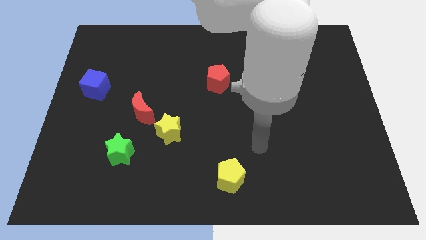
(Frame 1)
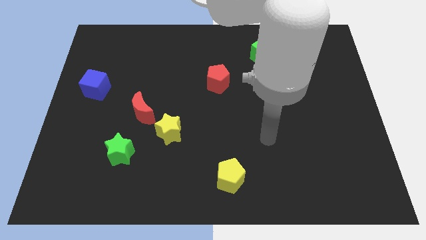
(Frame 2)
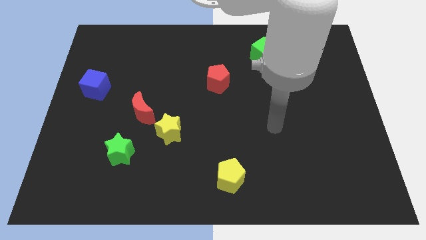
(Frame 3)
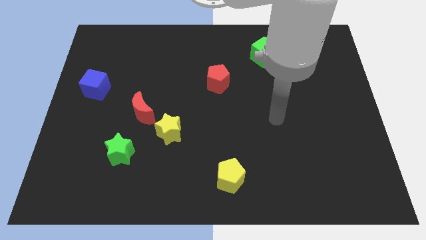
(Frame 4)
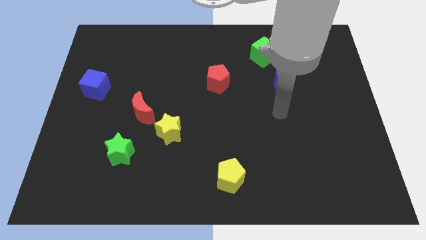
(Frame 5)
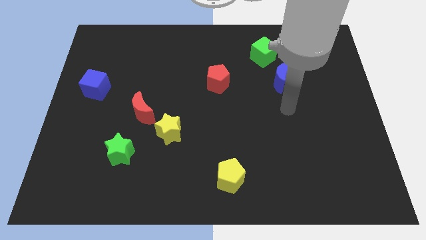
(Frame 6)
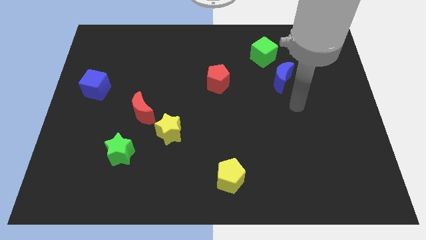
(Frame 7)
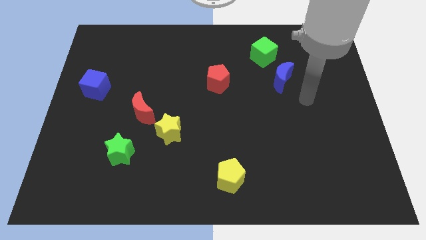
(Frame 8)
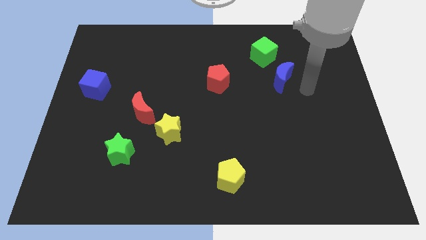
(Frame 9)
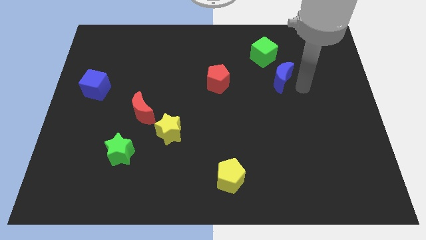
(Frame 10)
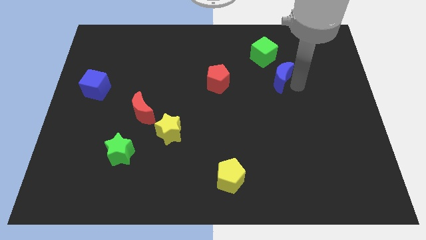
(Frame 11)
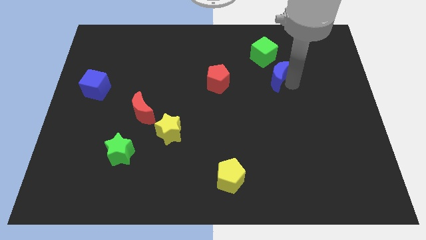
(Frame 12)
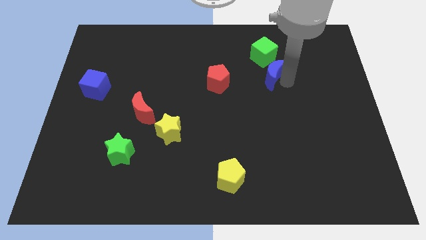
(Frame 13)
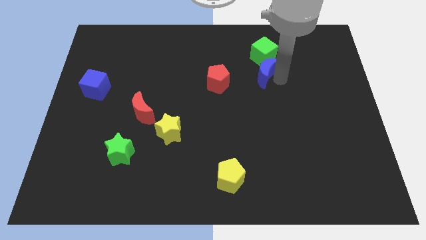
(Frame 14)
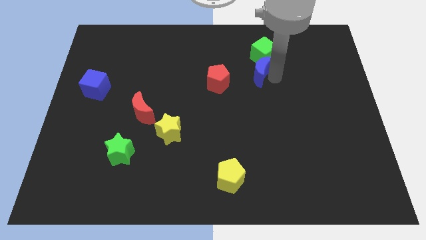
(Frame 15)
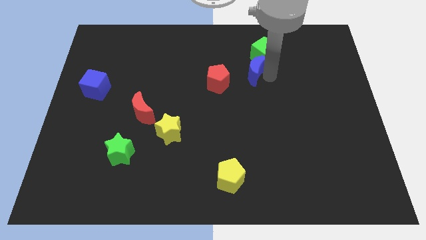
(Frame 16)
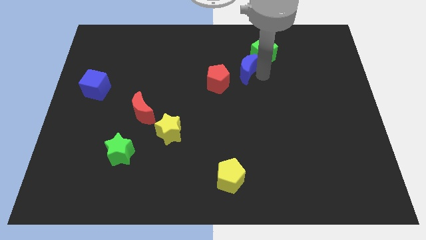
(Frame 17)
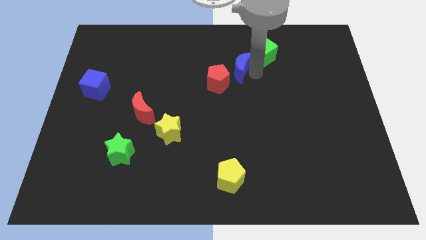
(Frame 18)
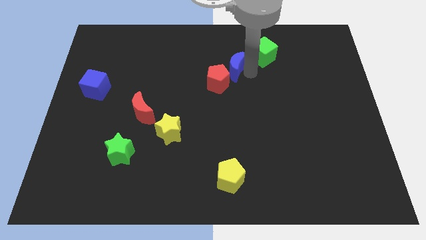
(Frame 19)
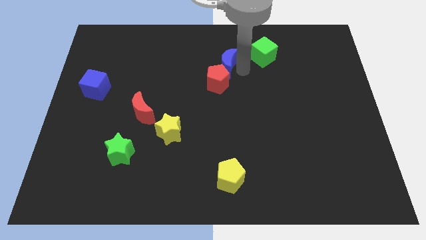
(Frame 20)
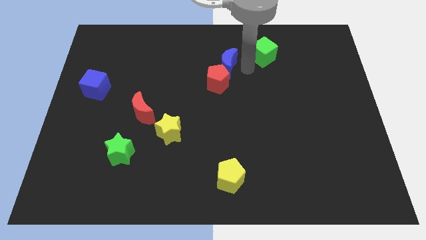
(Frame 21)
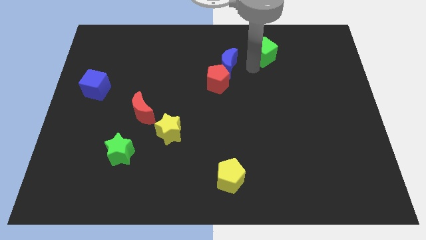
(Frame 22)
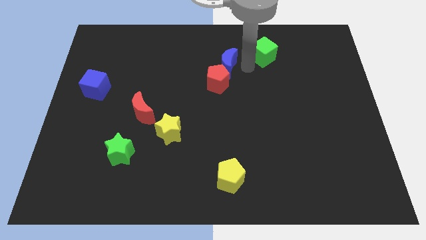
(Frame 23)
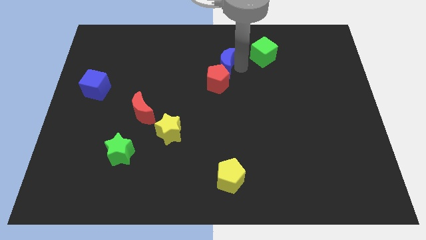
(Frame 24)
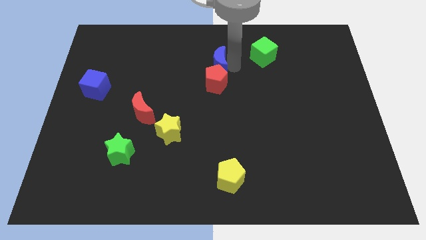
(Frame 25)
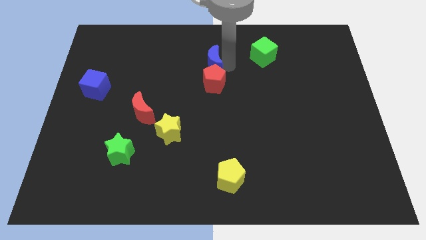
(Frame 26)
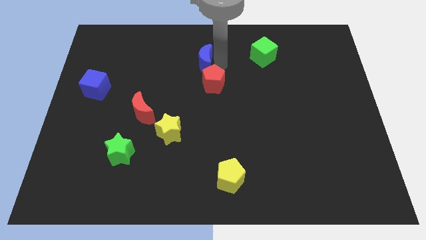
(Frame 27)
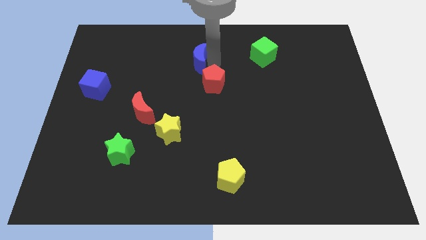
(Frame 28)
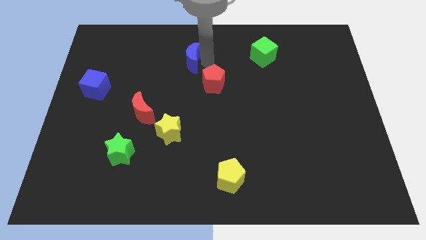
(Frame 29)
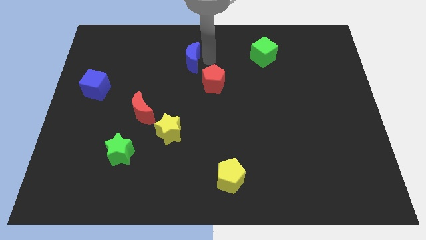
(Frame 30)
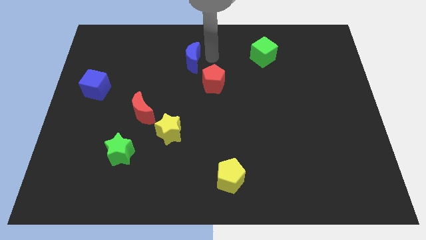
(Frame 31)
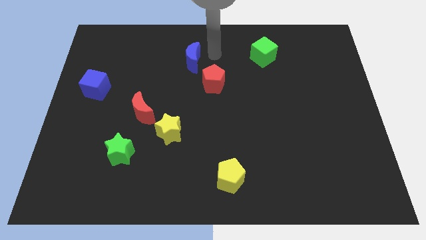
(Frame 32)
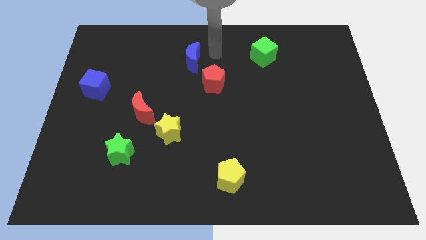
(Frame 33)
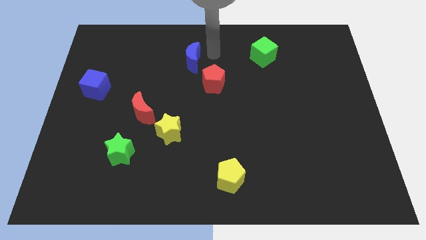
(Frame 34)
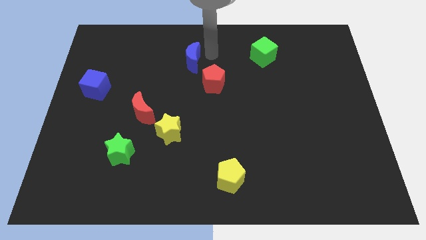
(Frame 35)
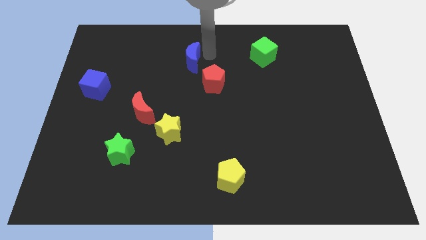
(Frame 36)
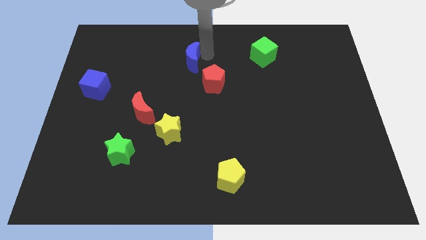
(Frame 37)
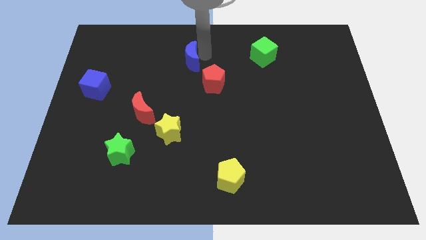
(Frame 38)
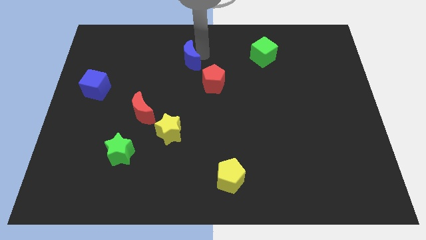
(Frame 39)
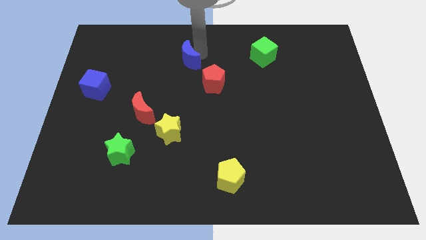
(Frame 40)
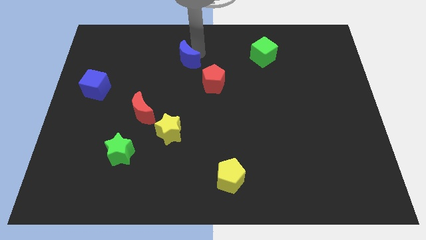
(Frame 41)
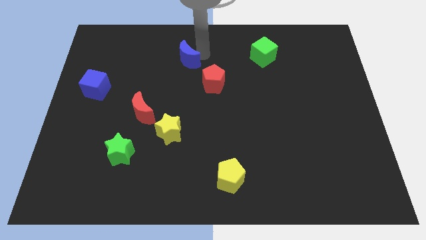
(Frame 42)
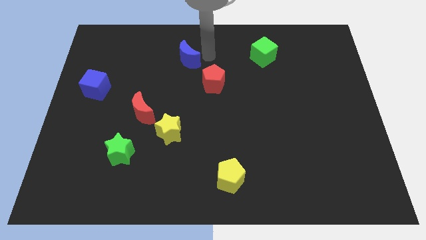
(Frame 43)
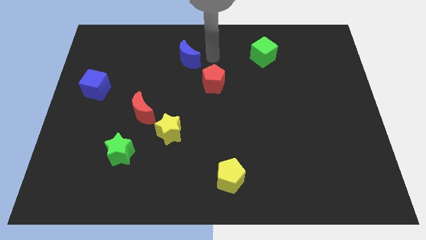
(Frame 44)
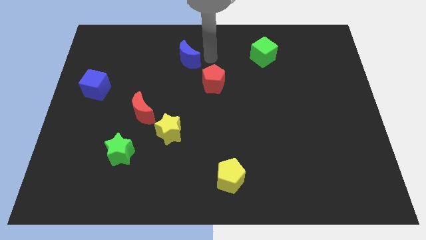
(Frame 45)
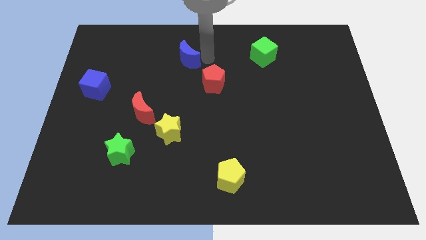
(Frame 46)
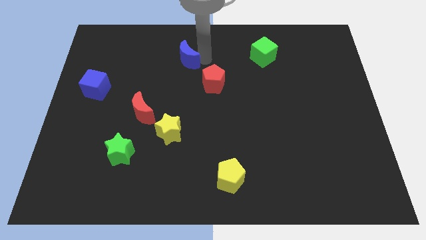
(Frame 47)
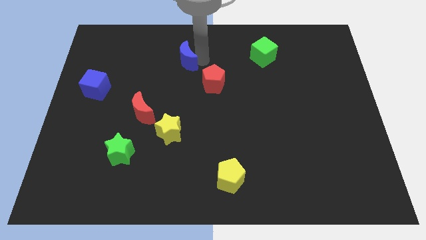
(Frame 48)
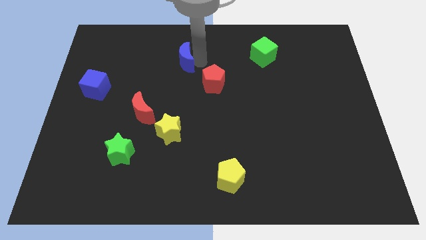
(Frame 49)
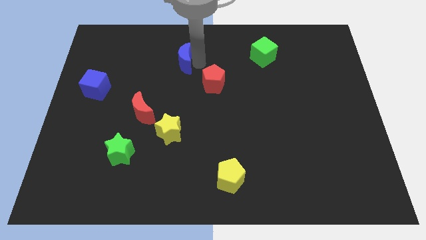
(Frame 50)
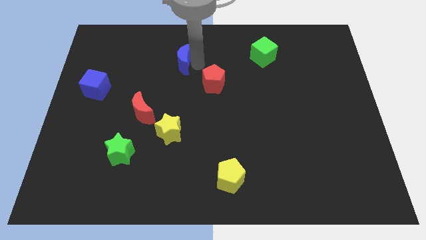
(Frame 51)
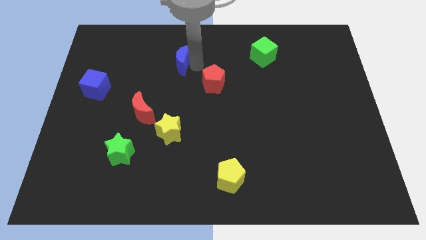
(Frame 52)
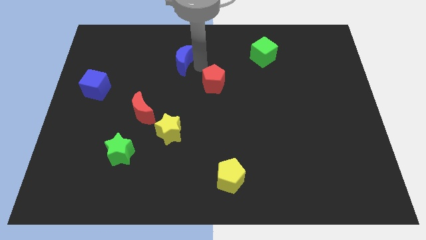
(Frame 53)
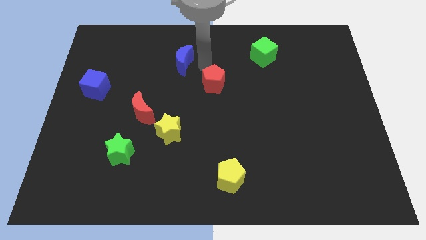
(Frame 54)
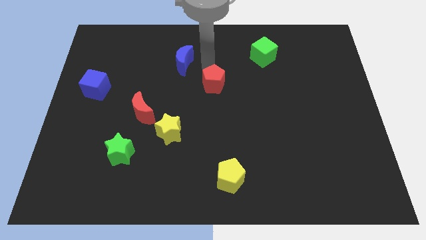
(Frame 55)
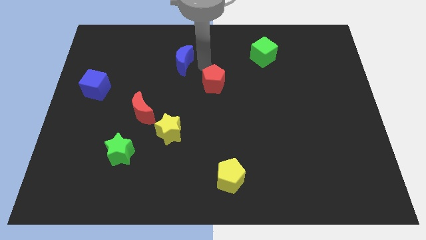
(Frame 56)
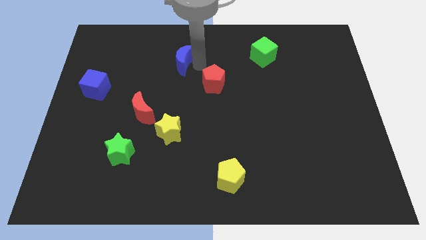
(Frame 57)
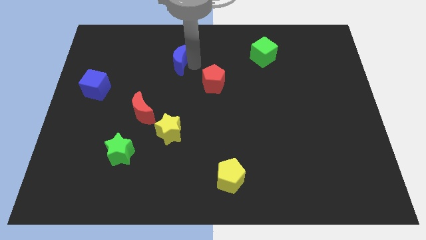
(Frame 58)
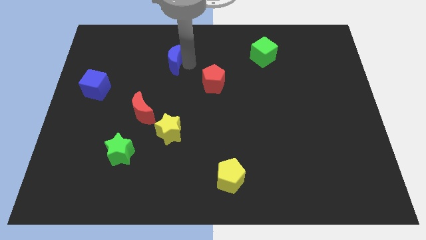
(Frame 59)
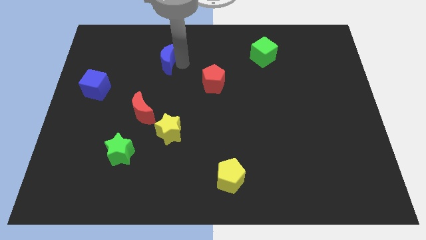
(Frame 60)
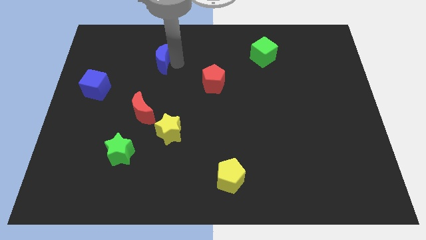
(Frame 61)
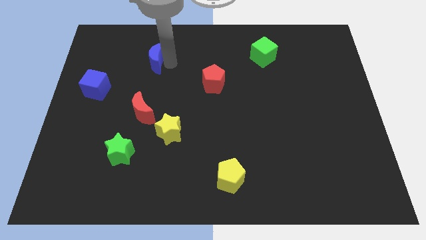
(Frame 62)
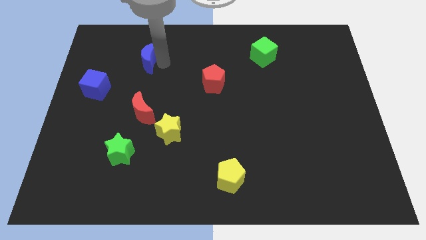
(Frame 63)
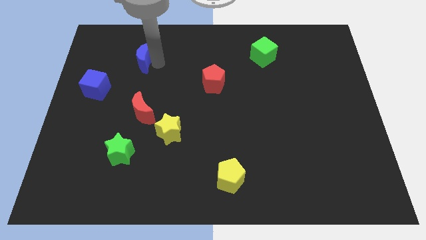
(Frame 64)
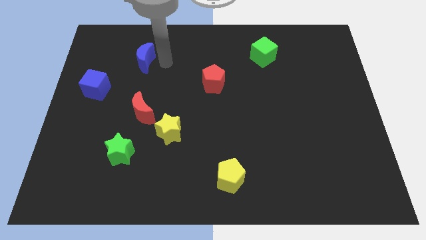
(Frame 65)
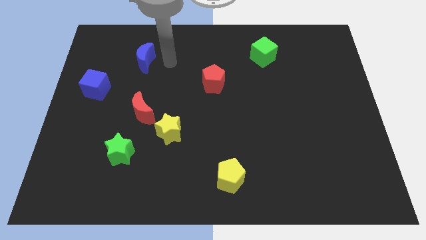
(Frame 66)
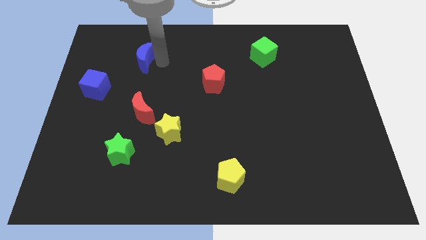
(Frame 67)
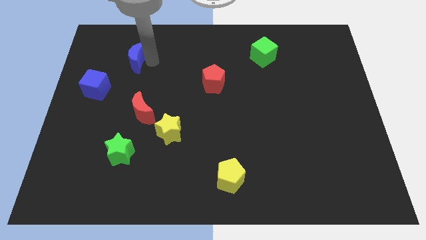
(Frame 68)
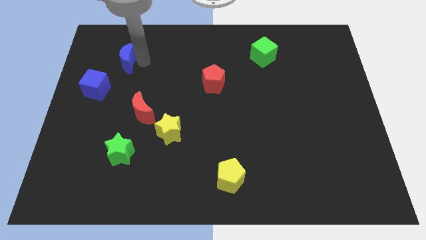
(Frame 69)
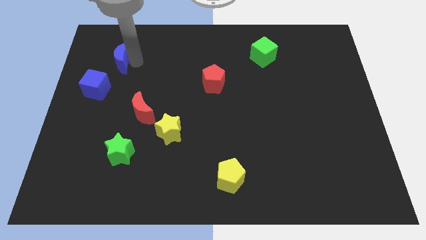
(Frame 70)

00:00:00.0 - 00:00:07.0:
move the blue moon to the top side of the blue cube
